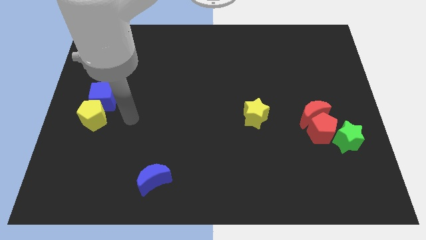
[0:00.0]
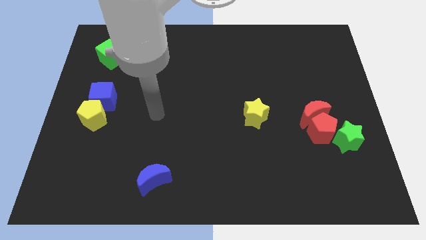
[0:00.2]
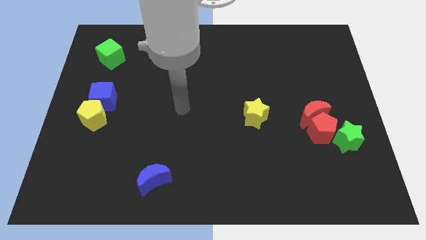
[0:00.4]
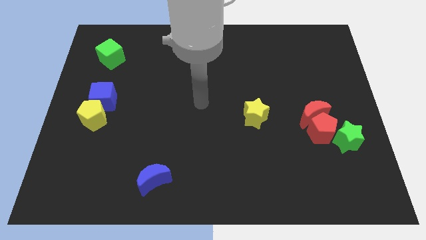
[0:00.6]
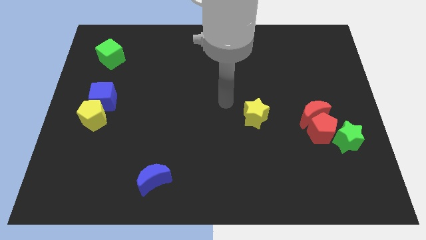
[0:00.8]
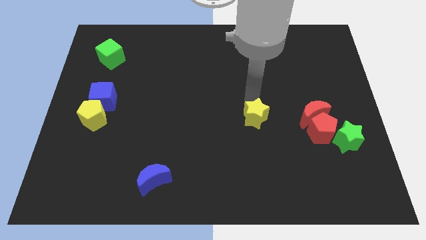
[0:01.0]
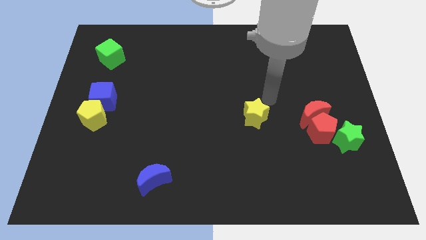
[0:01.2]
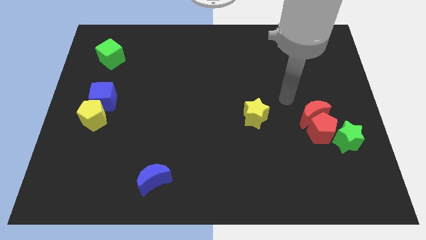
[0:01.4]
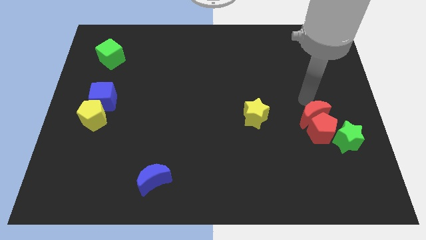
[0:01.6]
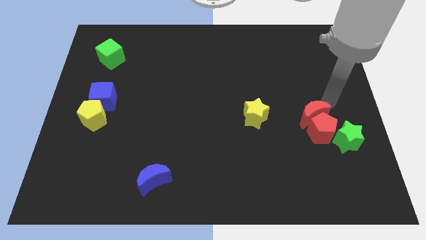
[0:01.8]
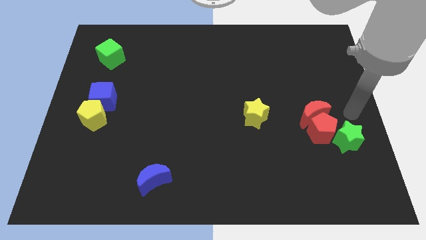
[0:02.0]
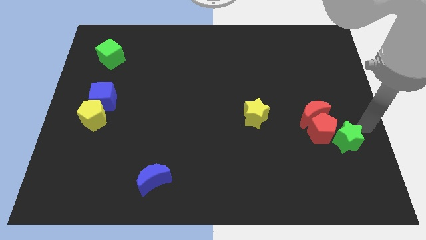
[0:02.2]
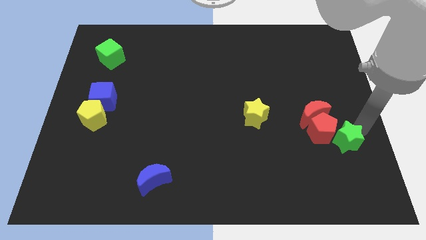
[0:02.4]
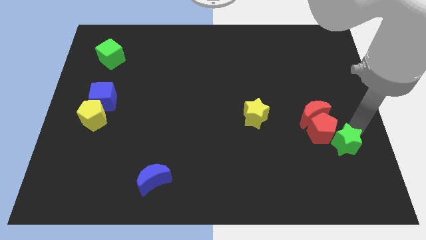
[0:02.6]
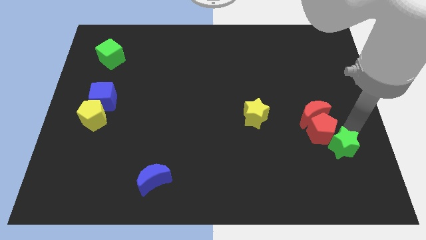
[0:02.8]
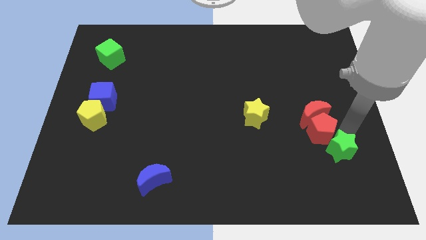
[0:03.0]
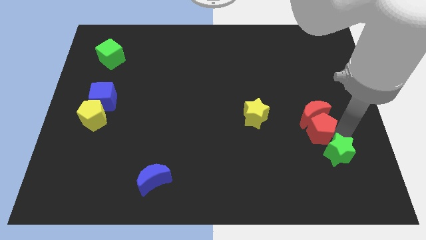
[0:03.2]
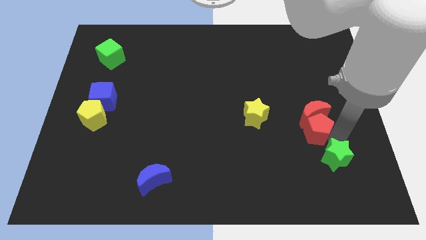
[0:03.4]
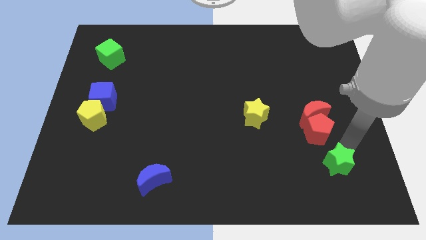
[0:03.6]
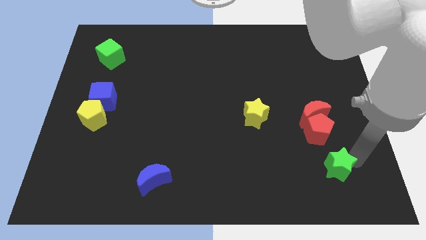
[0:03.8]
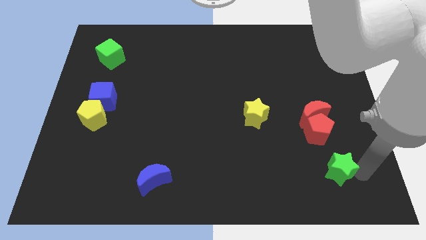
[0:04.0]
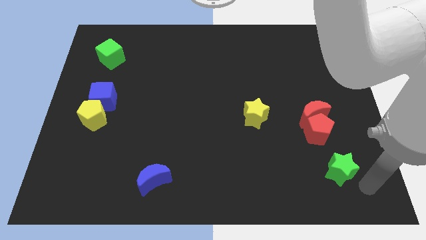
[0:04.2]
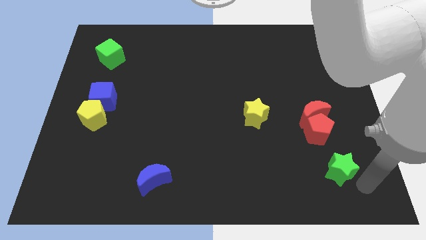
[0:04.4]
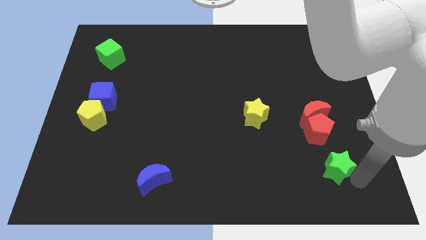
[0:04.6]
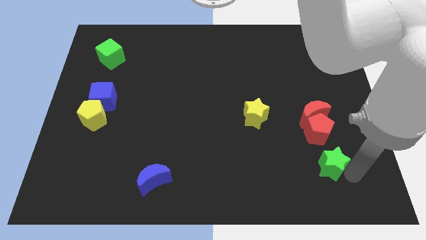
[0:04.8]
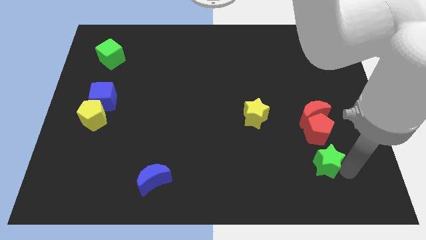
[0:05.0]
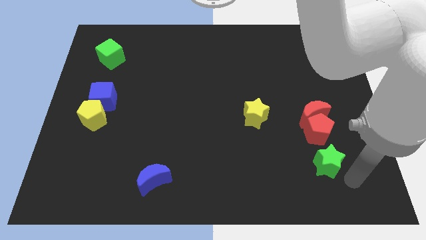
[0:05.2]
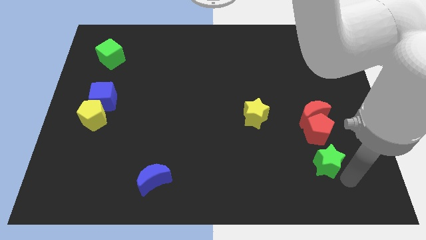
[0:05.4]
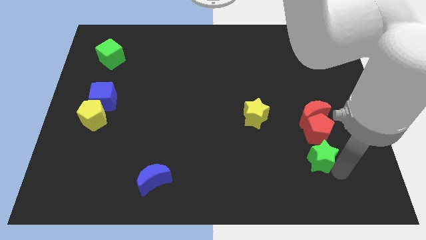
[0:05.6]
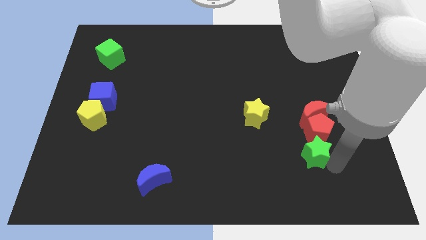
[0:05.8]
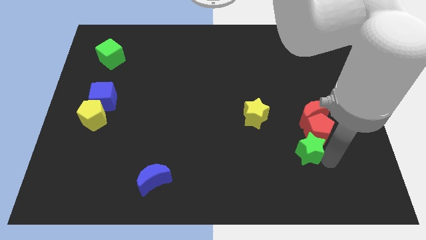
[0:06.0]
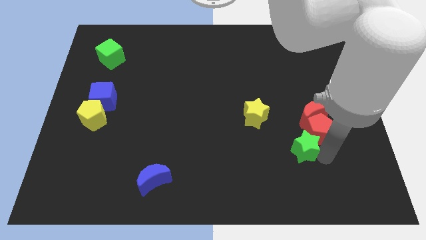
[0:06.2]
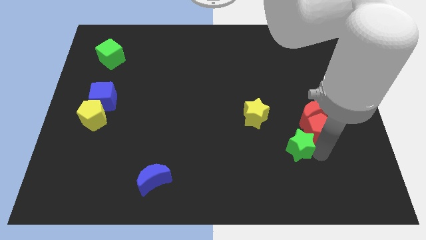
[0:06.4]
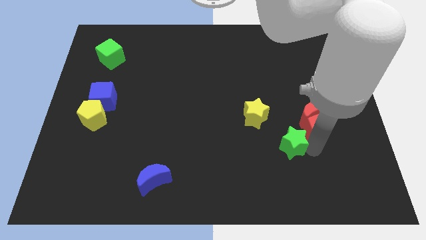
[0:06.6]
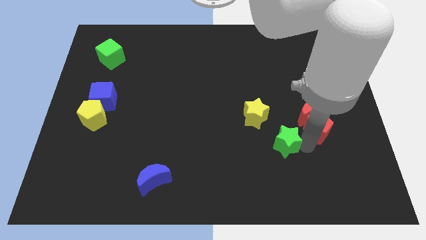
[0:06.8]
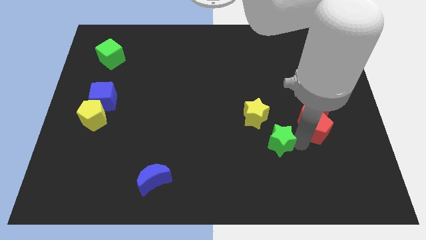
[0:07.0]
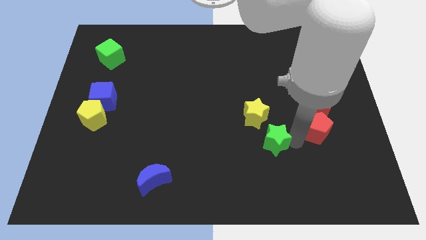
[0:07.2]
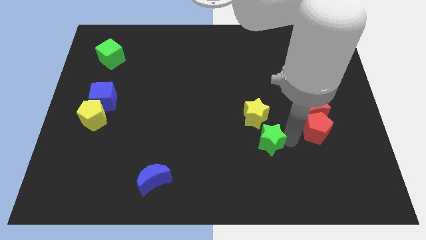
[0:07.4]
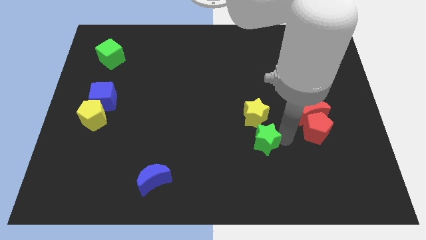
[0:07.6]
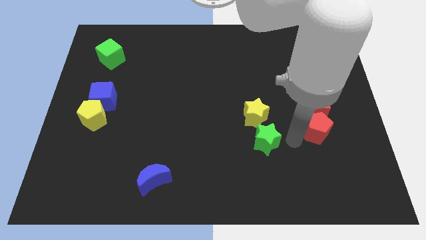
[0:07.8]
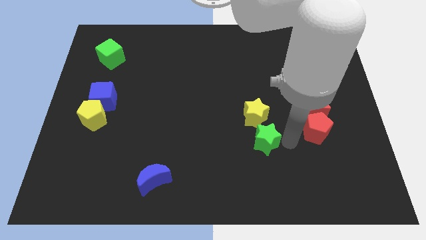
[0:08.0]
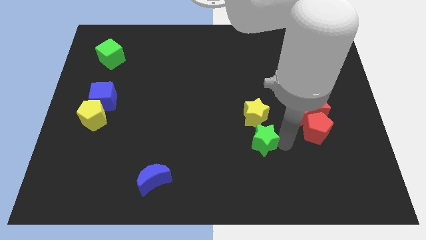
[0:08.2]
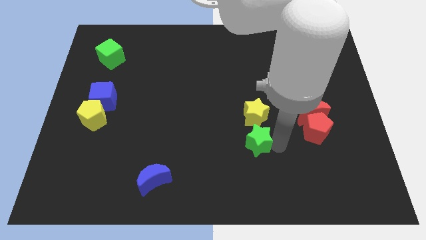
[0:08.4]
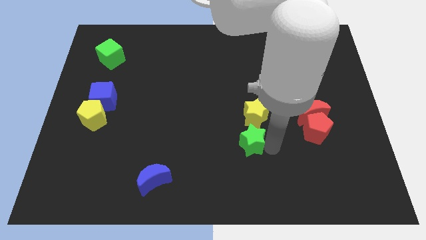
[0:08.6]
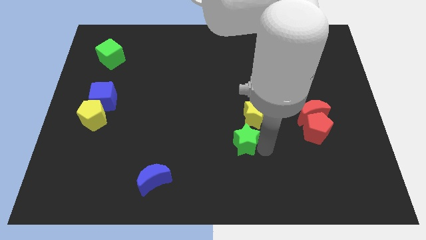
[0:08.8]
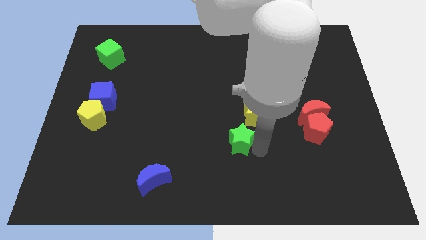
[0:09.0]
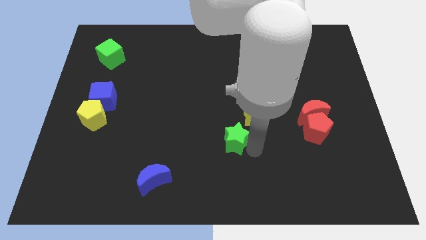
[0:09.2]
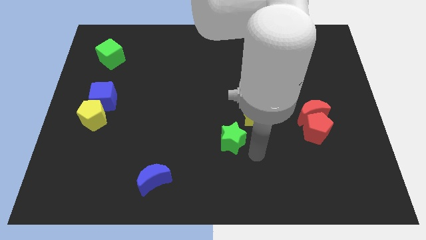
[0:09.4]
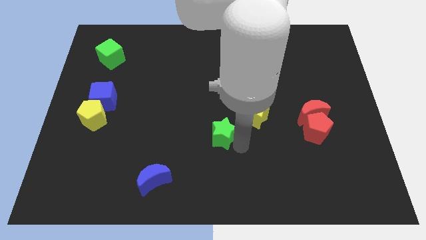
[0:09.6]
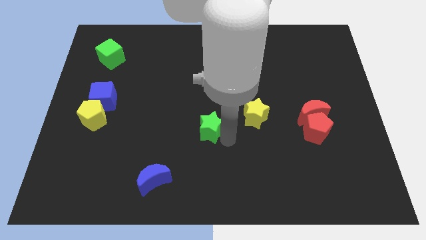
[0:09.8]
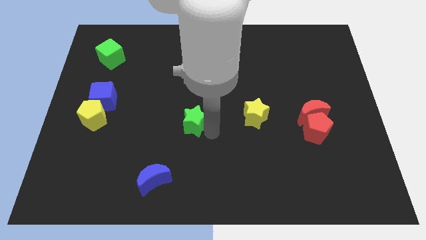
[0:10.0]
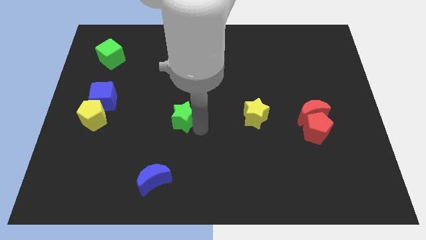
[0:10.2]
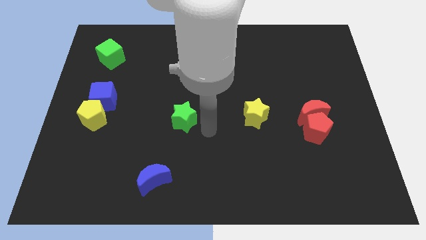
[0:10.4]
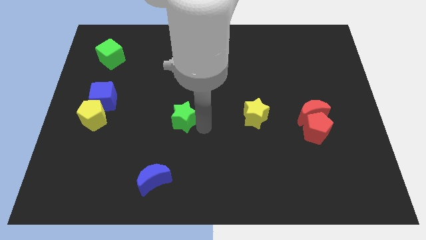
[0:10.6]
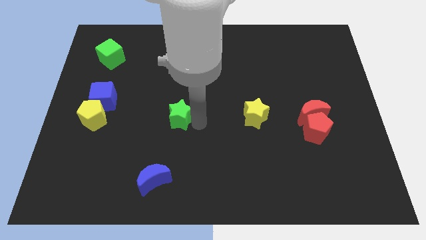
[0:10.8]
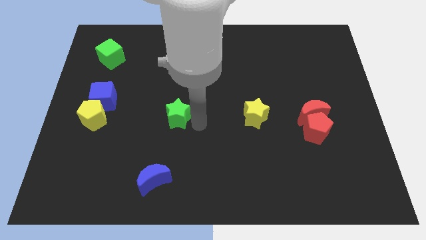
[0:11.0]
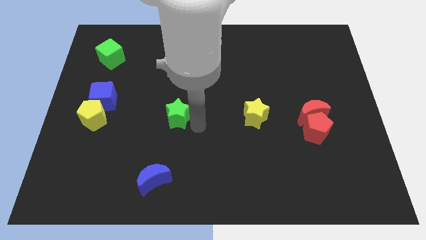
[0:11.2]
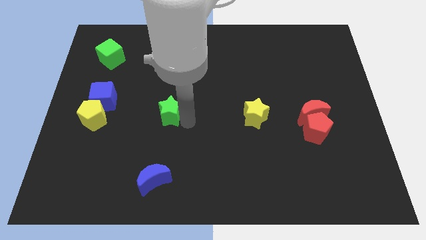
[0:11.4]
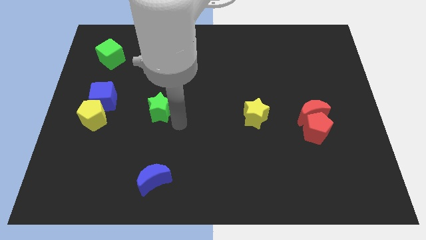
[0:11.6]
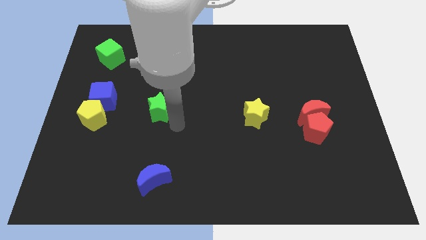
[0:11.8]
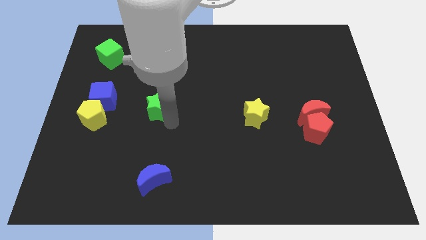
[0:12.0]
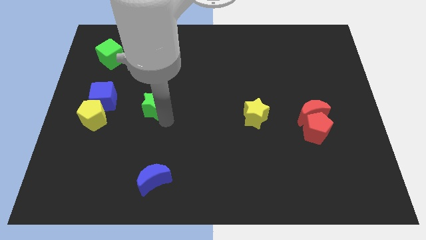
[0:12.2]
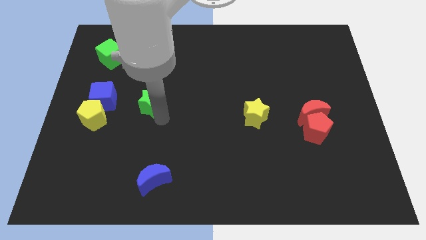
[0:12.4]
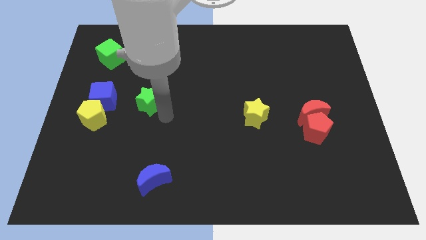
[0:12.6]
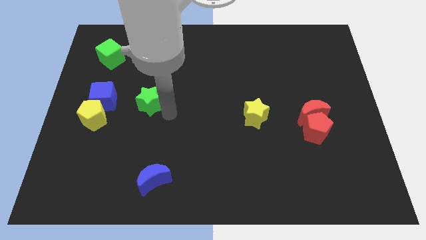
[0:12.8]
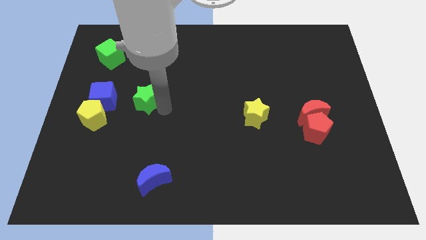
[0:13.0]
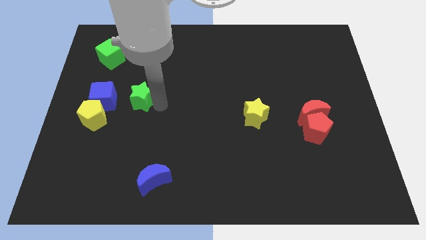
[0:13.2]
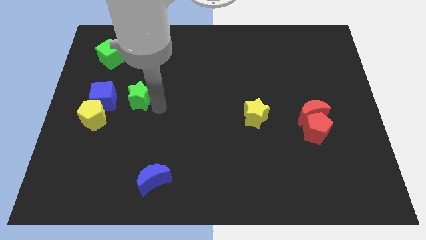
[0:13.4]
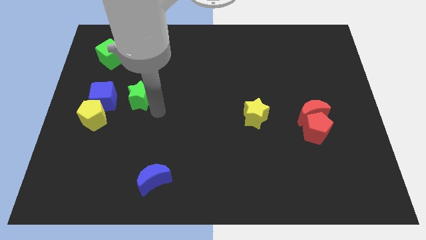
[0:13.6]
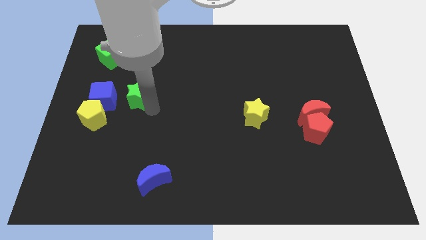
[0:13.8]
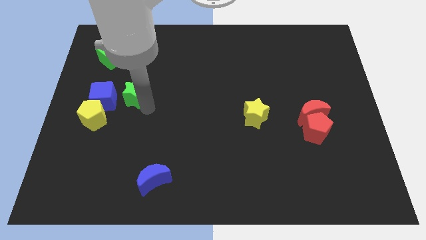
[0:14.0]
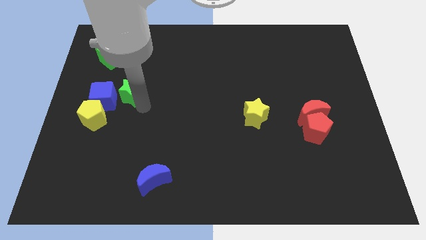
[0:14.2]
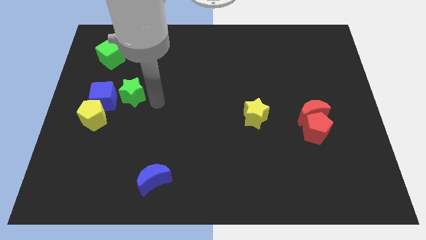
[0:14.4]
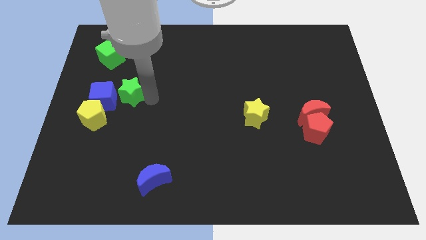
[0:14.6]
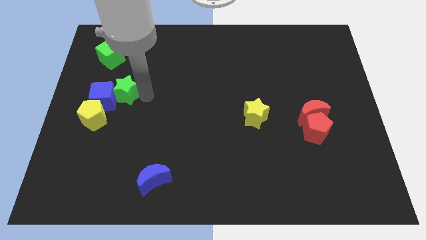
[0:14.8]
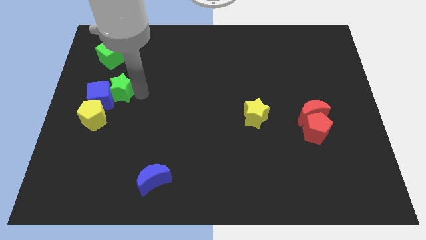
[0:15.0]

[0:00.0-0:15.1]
push the green star to the bottom of the green cube
